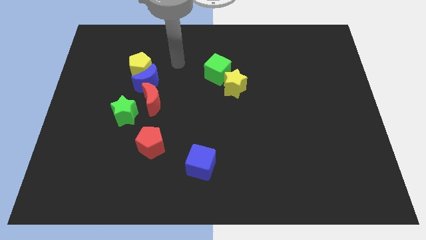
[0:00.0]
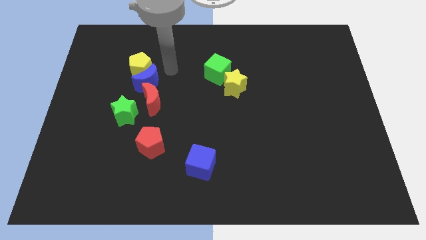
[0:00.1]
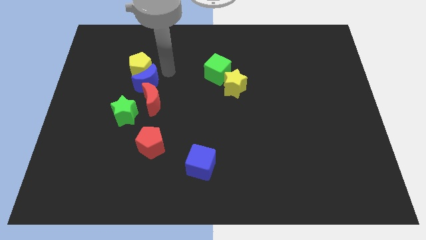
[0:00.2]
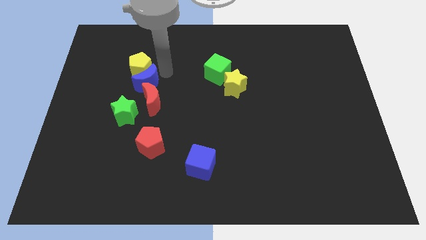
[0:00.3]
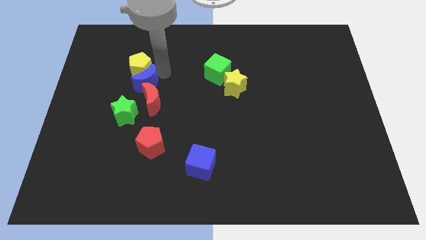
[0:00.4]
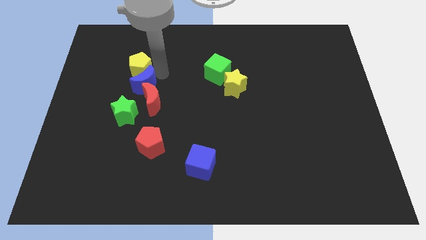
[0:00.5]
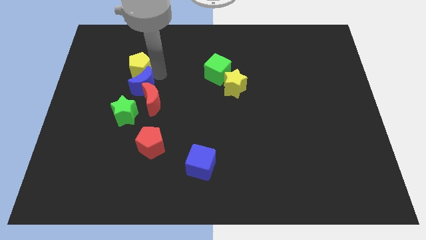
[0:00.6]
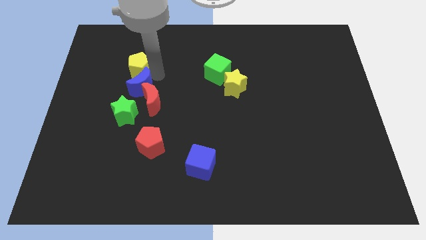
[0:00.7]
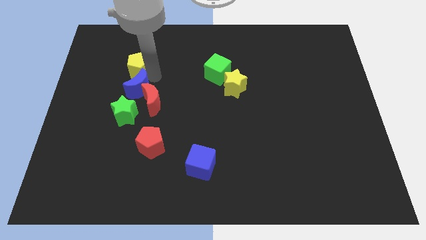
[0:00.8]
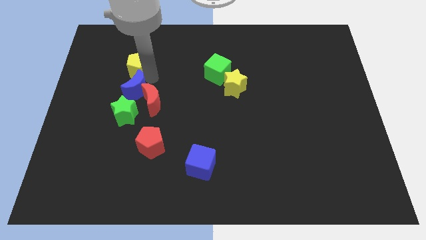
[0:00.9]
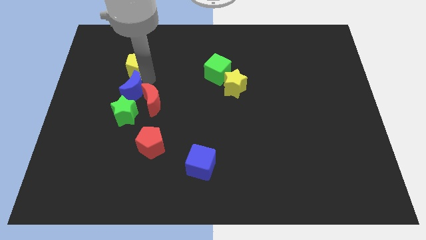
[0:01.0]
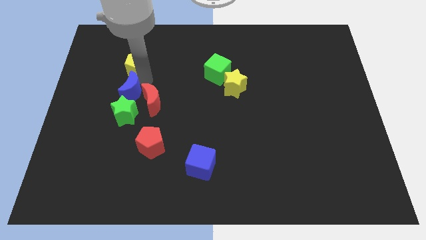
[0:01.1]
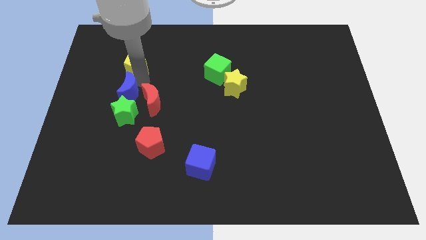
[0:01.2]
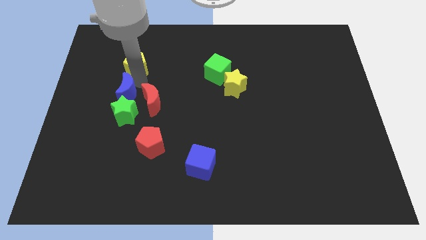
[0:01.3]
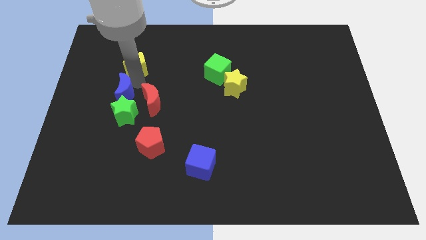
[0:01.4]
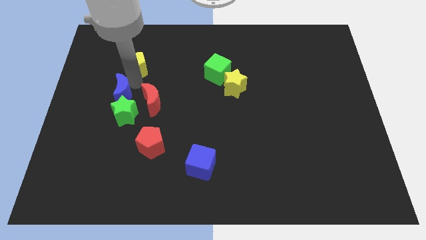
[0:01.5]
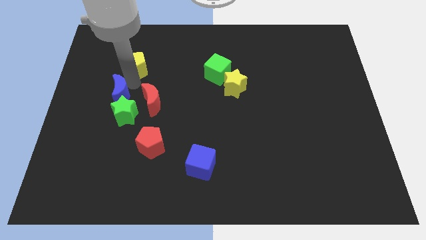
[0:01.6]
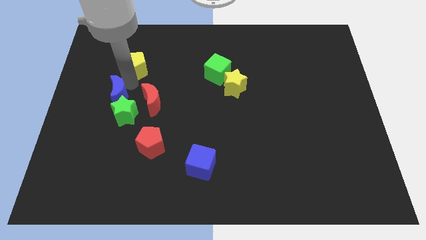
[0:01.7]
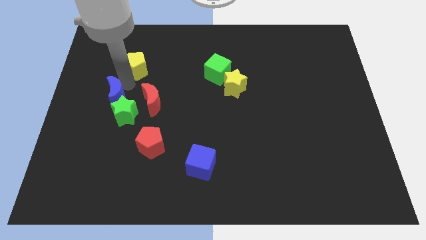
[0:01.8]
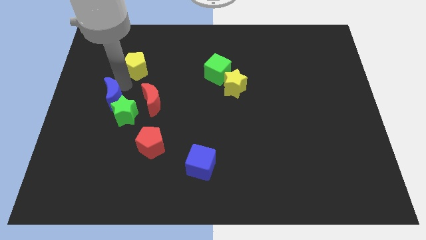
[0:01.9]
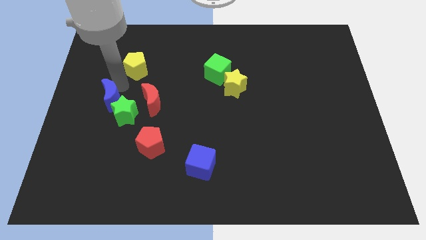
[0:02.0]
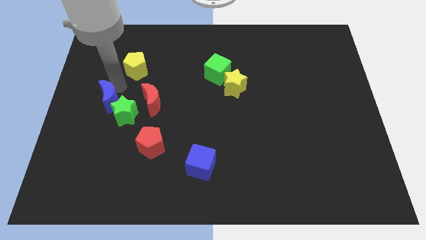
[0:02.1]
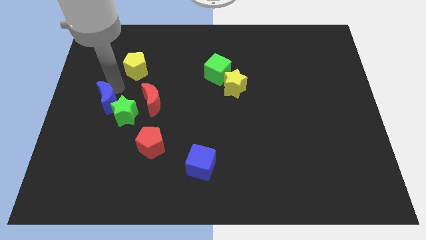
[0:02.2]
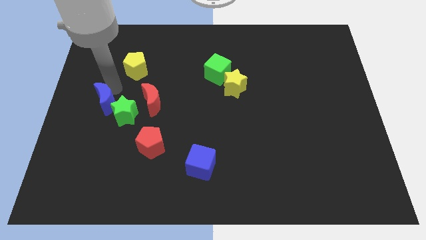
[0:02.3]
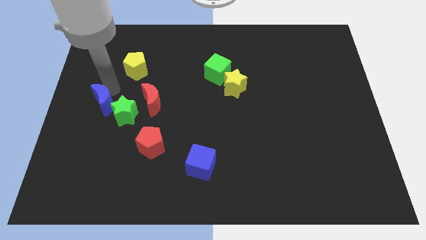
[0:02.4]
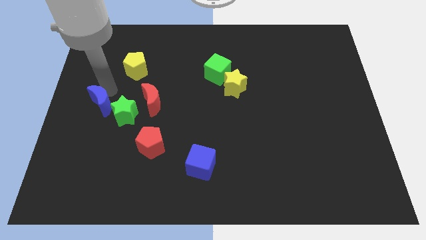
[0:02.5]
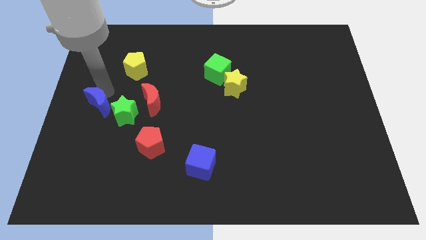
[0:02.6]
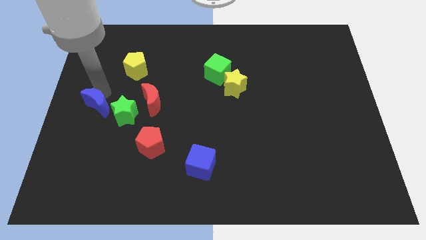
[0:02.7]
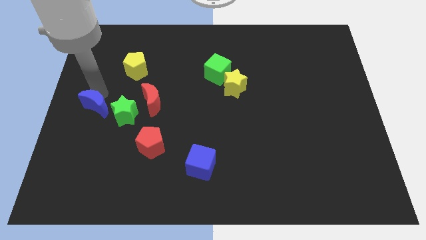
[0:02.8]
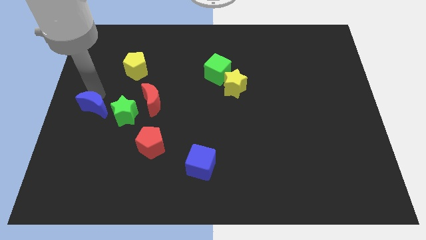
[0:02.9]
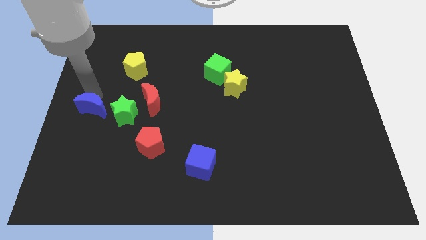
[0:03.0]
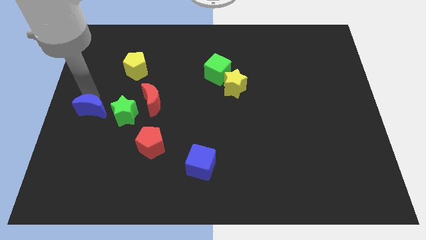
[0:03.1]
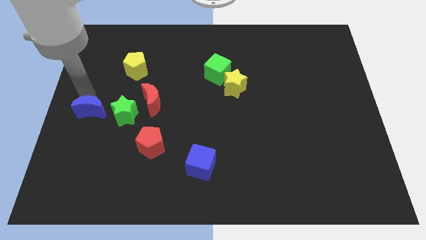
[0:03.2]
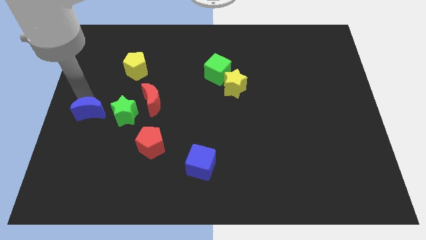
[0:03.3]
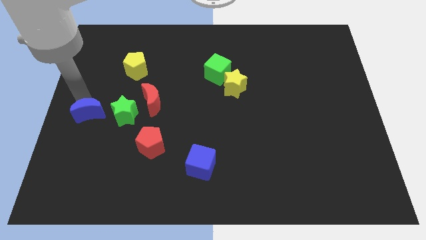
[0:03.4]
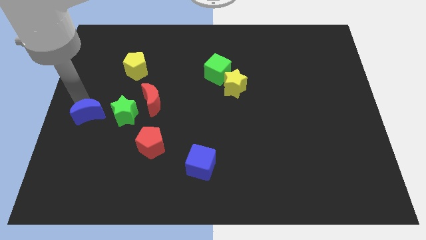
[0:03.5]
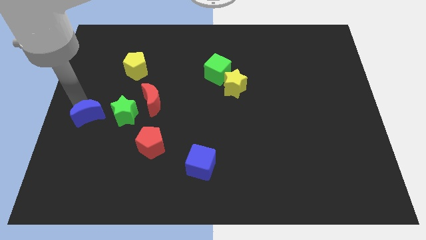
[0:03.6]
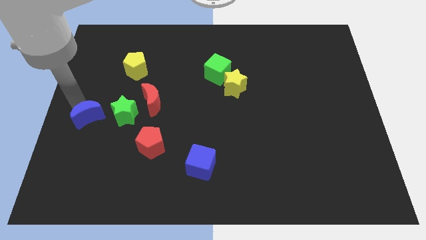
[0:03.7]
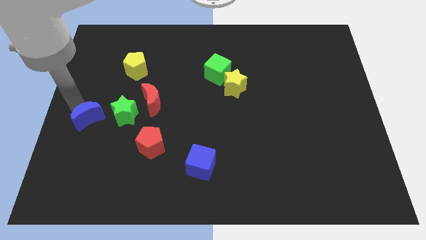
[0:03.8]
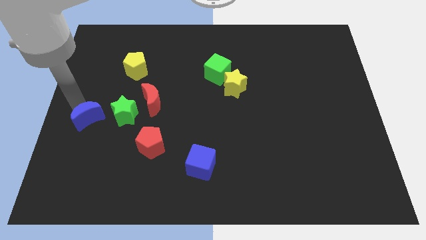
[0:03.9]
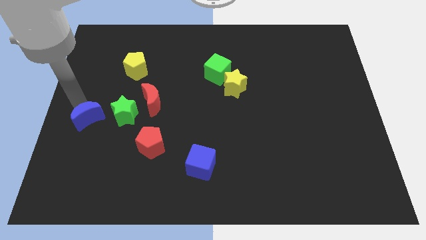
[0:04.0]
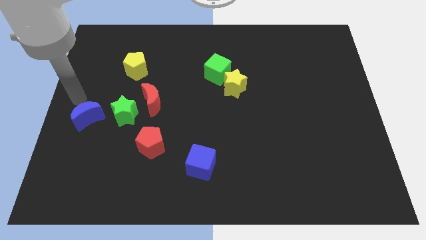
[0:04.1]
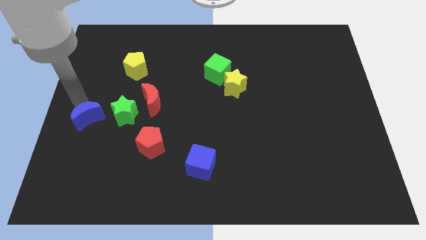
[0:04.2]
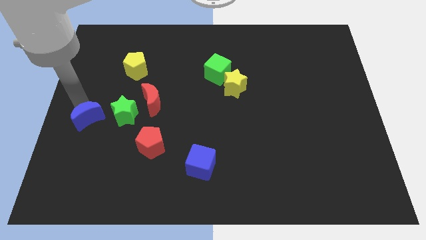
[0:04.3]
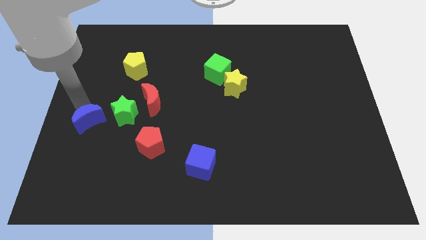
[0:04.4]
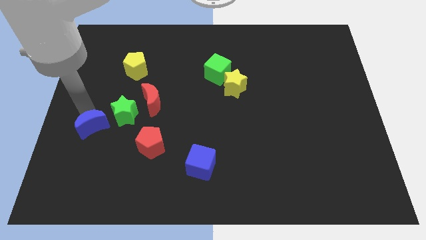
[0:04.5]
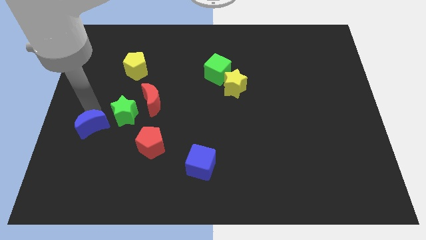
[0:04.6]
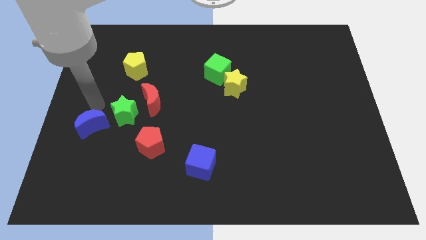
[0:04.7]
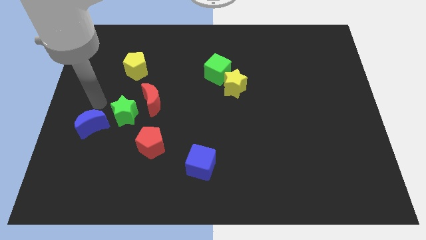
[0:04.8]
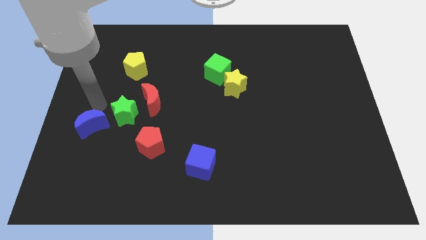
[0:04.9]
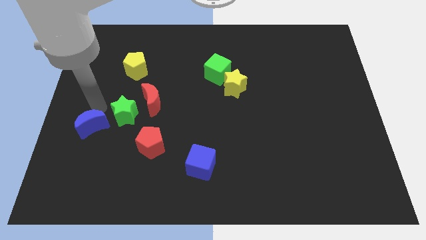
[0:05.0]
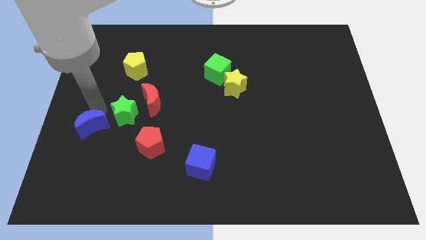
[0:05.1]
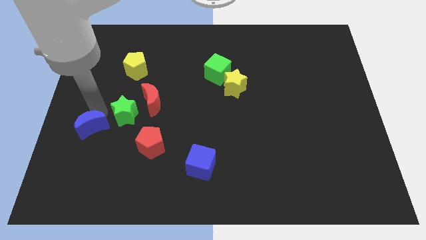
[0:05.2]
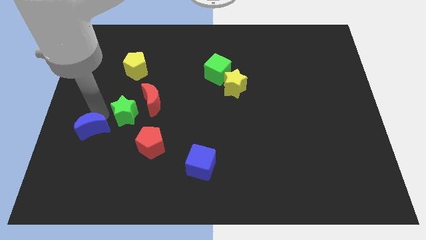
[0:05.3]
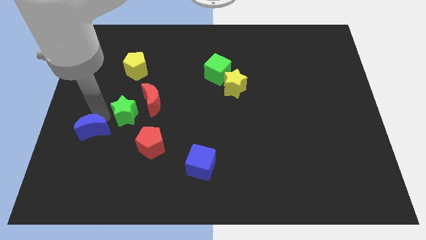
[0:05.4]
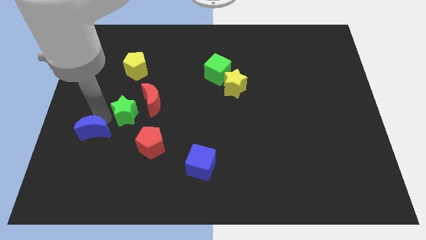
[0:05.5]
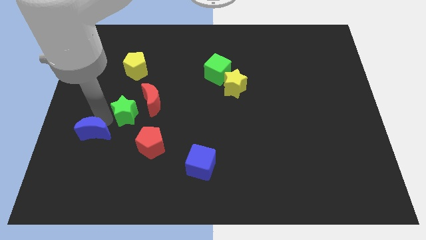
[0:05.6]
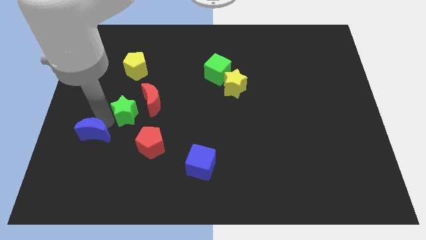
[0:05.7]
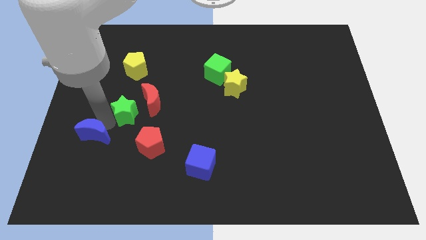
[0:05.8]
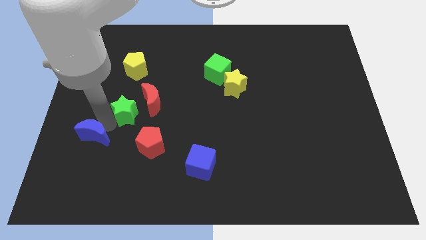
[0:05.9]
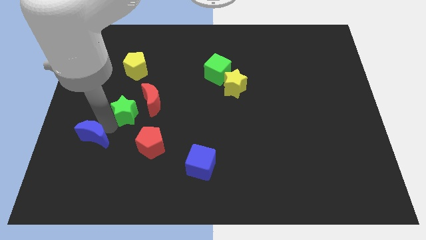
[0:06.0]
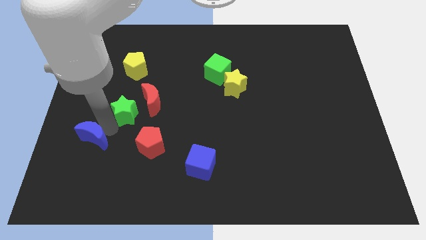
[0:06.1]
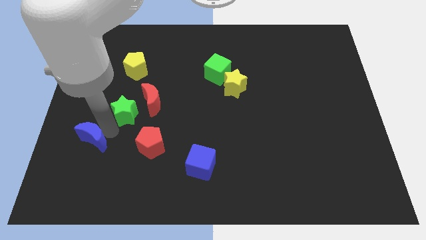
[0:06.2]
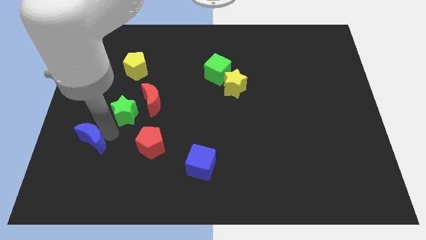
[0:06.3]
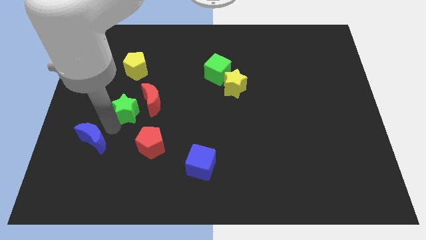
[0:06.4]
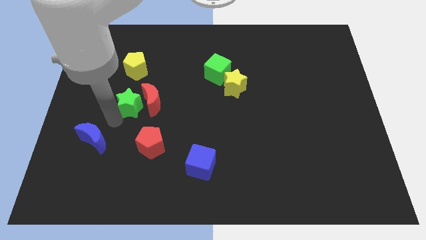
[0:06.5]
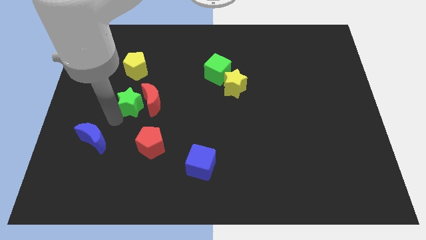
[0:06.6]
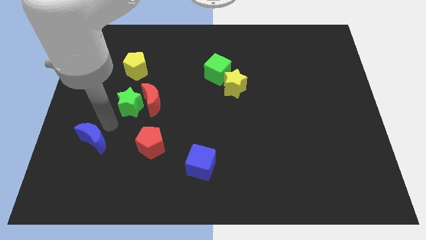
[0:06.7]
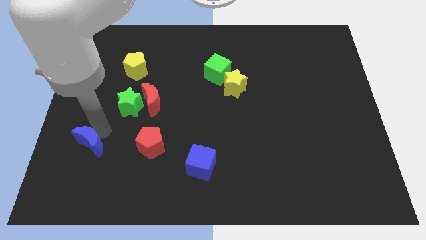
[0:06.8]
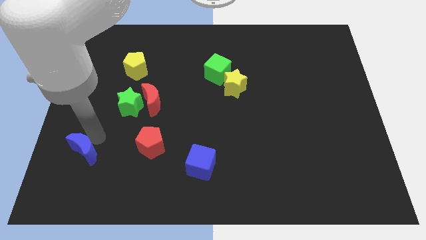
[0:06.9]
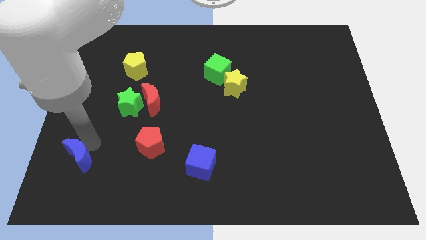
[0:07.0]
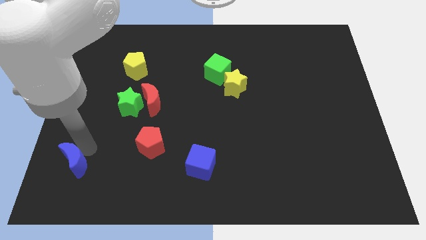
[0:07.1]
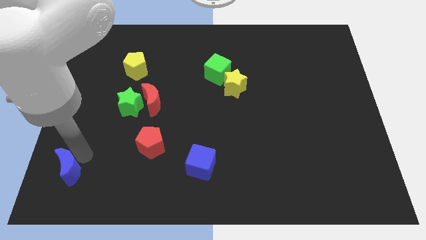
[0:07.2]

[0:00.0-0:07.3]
slide the blue moon to the bottom left corner
